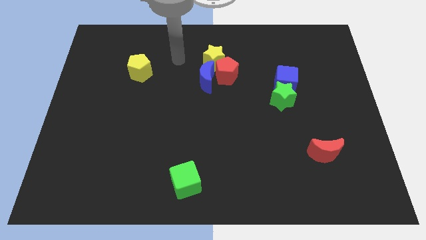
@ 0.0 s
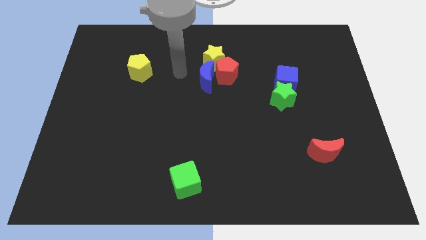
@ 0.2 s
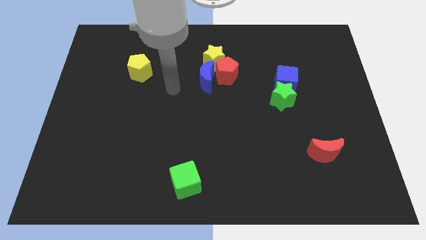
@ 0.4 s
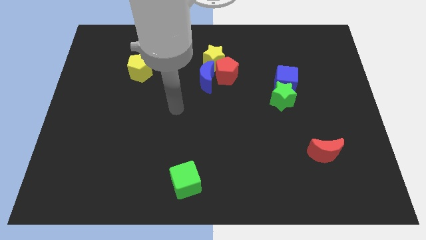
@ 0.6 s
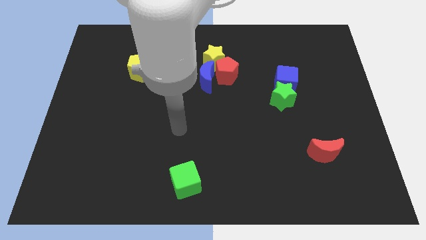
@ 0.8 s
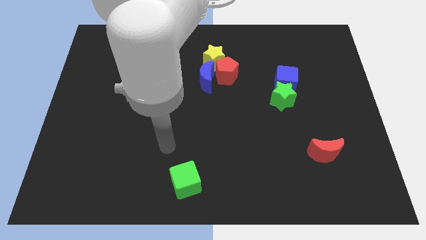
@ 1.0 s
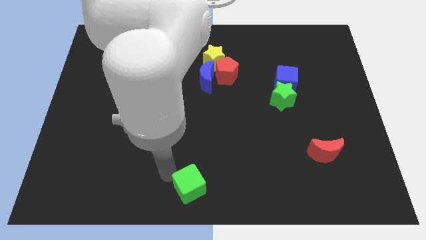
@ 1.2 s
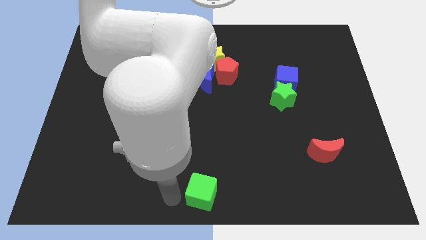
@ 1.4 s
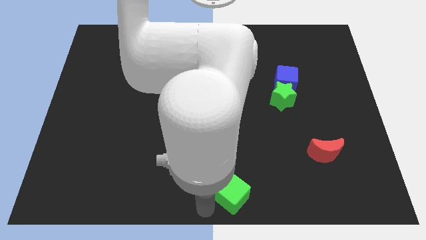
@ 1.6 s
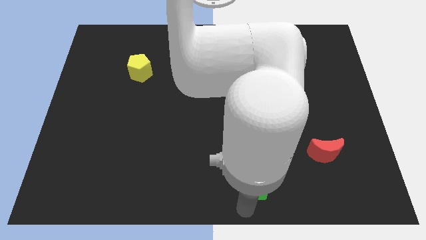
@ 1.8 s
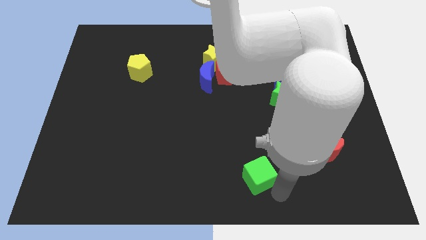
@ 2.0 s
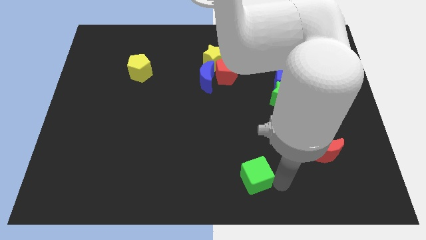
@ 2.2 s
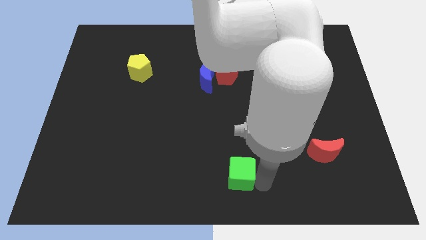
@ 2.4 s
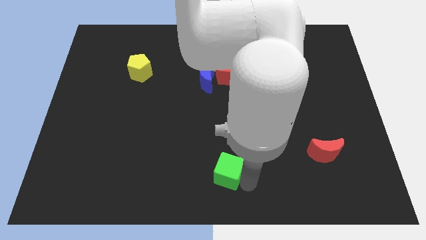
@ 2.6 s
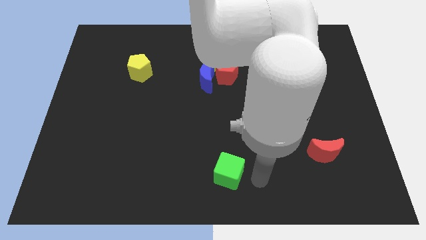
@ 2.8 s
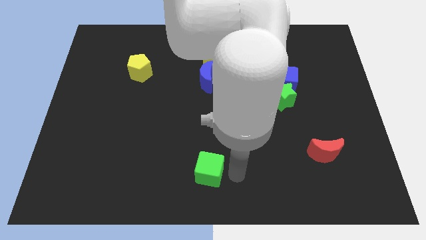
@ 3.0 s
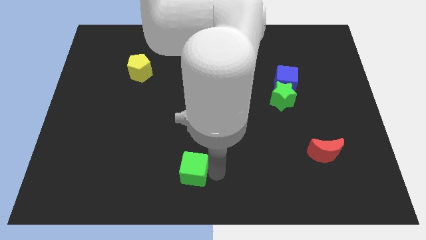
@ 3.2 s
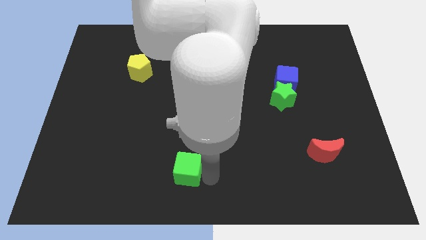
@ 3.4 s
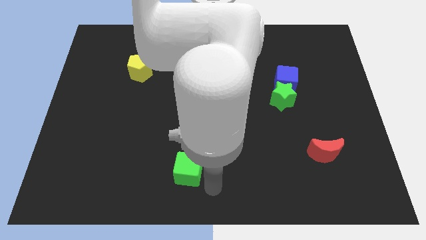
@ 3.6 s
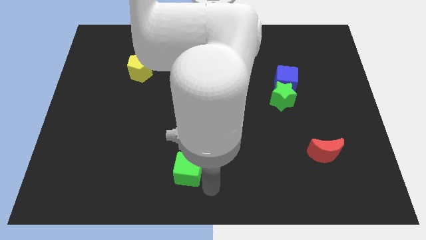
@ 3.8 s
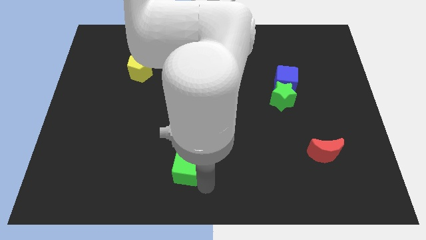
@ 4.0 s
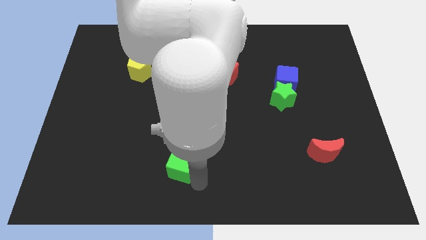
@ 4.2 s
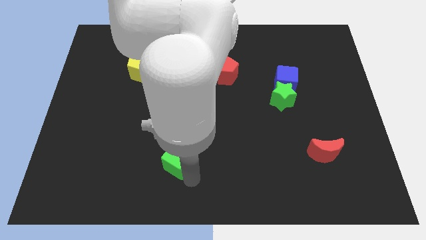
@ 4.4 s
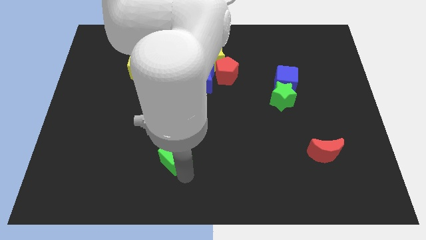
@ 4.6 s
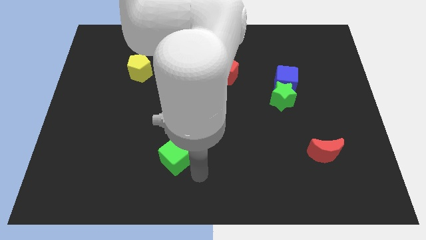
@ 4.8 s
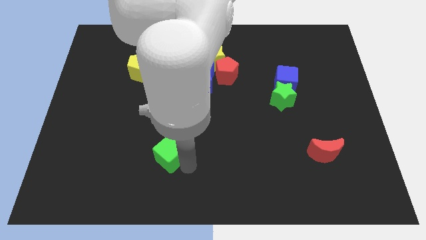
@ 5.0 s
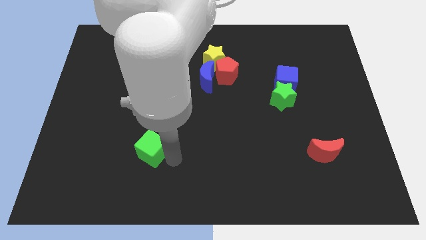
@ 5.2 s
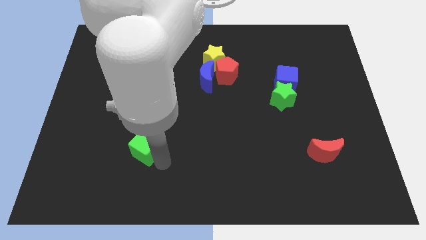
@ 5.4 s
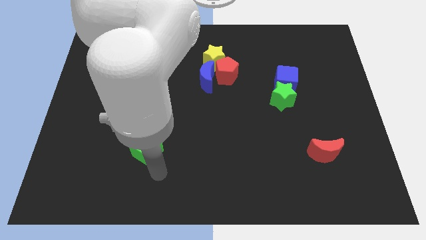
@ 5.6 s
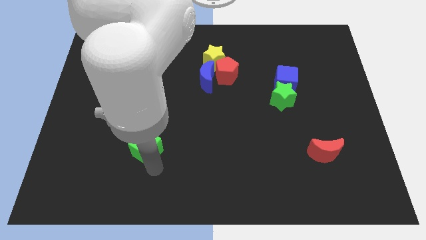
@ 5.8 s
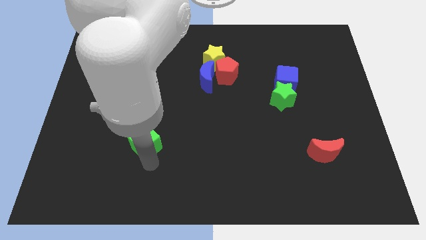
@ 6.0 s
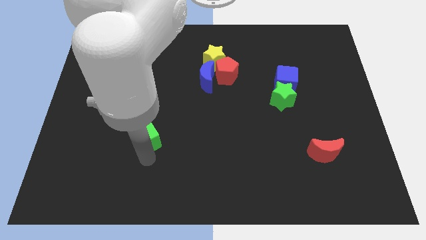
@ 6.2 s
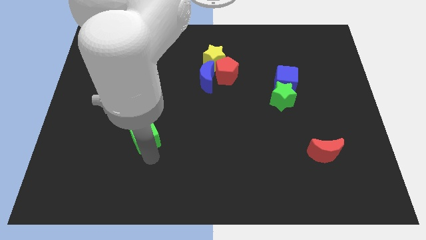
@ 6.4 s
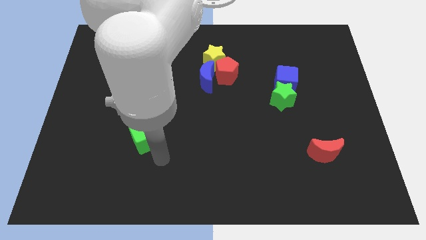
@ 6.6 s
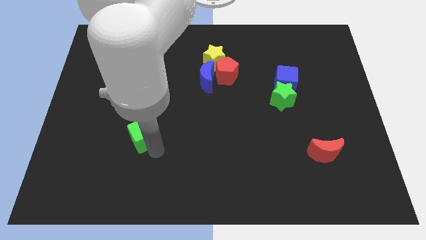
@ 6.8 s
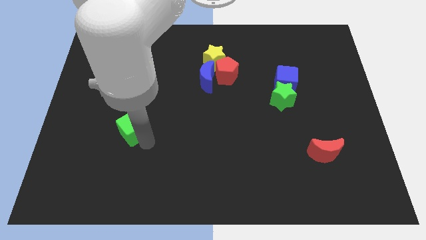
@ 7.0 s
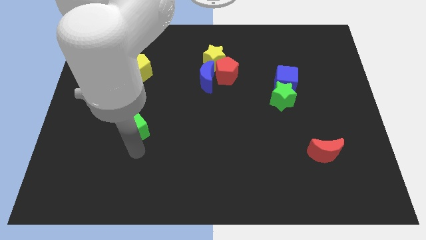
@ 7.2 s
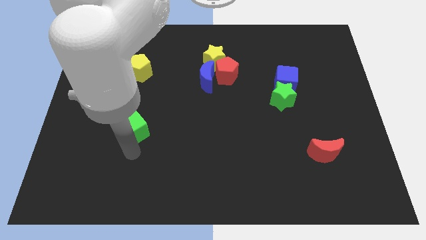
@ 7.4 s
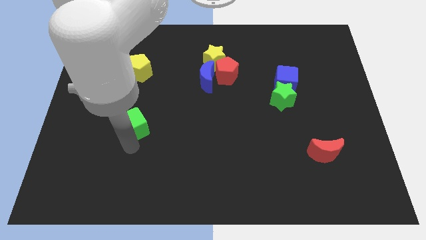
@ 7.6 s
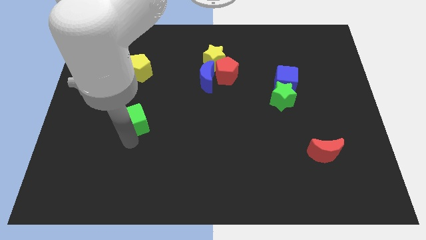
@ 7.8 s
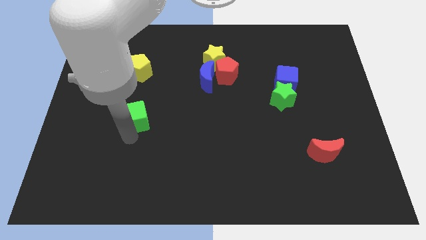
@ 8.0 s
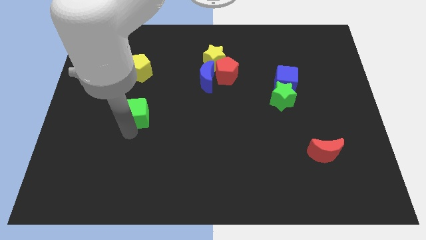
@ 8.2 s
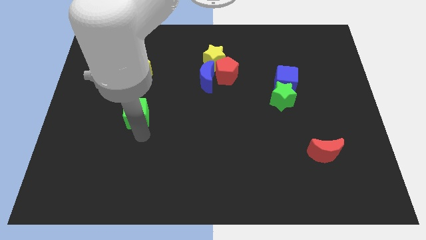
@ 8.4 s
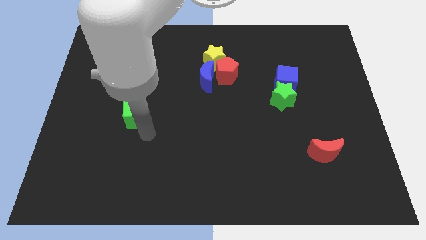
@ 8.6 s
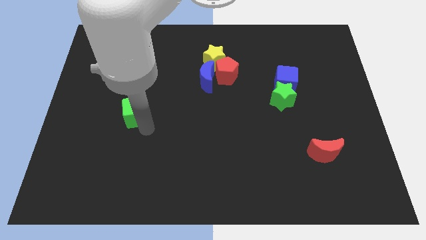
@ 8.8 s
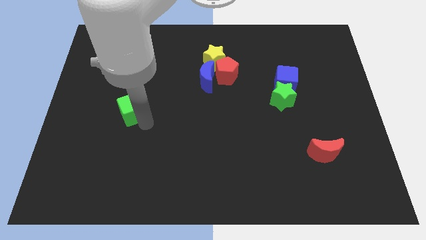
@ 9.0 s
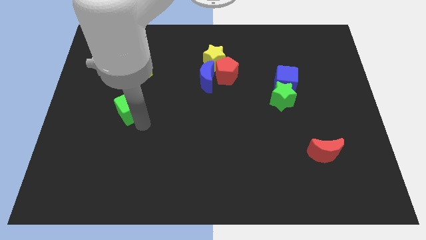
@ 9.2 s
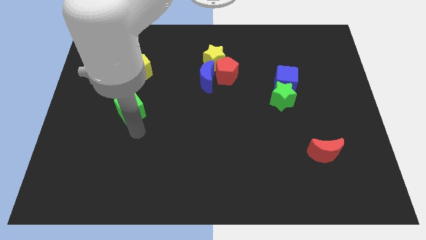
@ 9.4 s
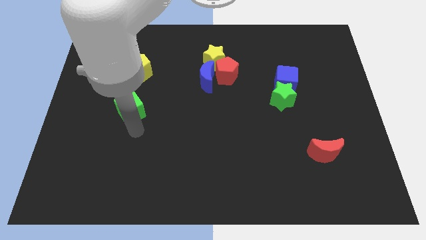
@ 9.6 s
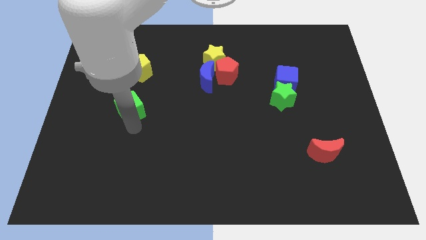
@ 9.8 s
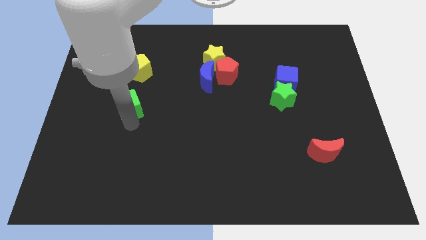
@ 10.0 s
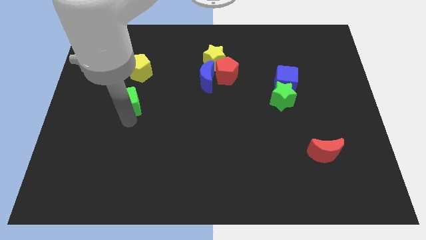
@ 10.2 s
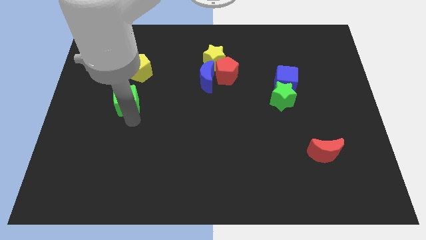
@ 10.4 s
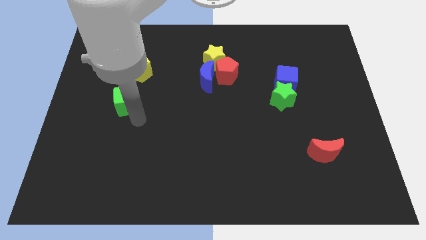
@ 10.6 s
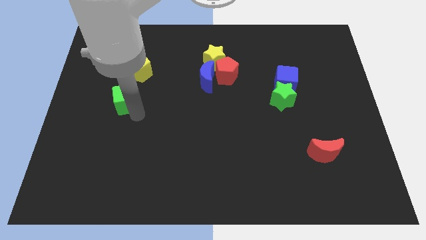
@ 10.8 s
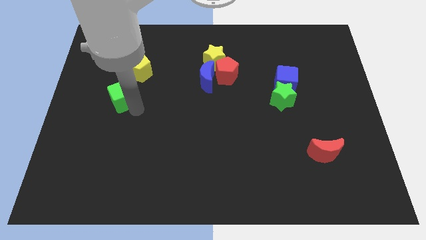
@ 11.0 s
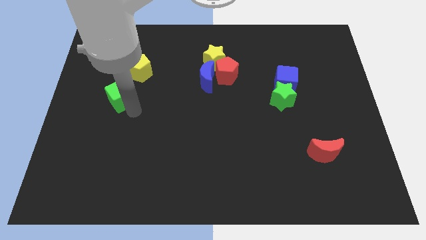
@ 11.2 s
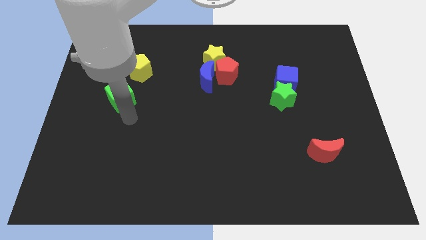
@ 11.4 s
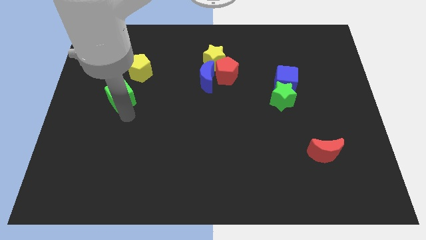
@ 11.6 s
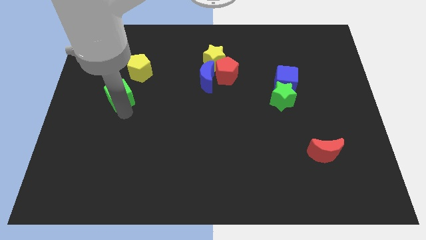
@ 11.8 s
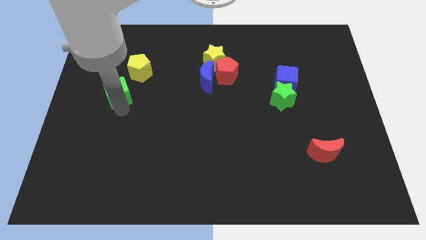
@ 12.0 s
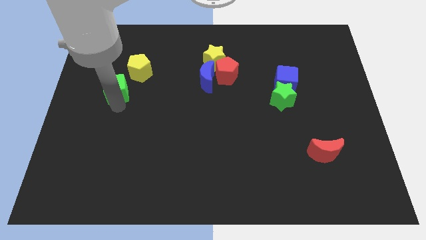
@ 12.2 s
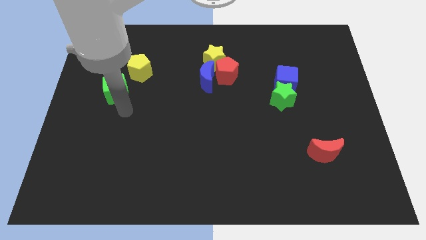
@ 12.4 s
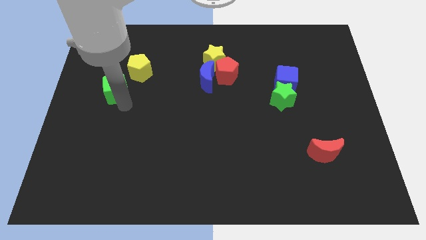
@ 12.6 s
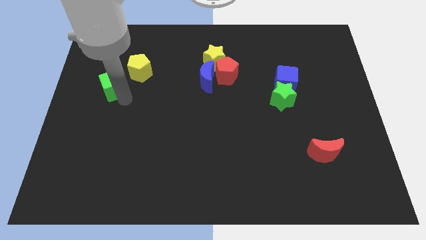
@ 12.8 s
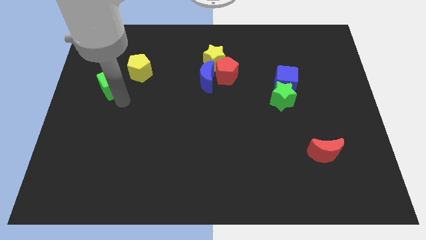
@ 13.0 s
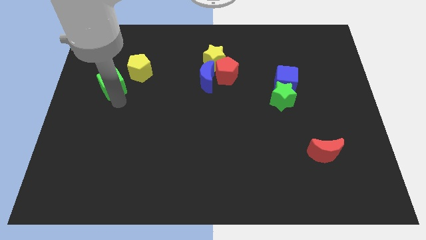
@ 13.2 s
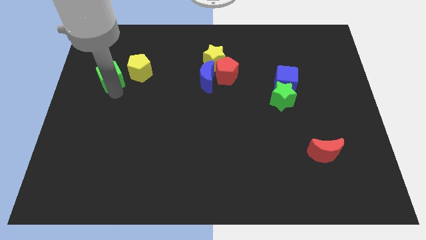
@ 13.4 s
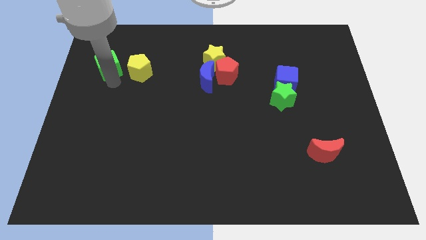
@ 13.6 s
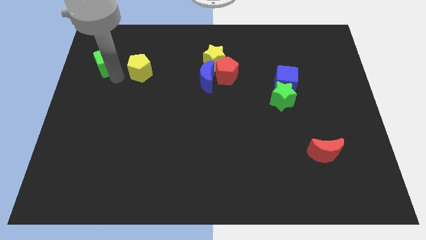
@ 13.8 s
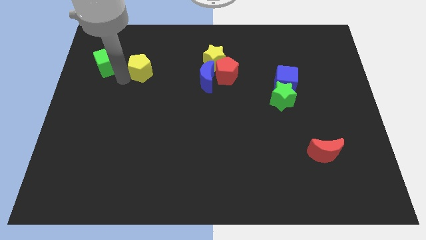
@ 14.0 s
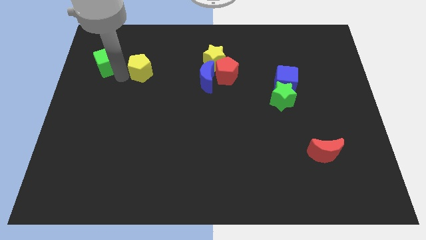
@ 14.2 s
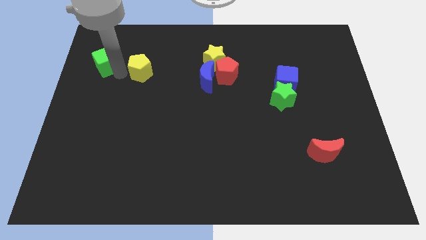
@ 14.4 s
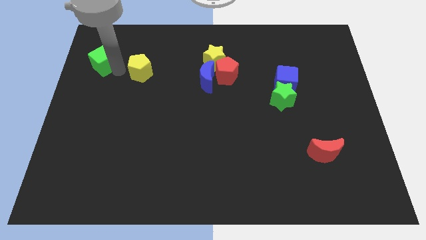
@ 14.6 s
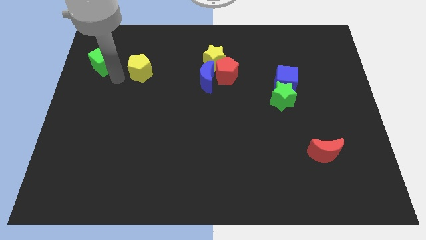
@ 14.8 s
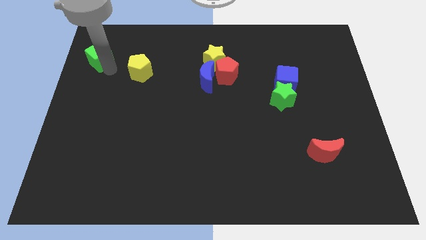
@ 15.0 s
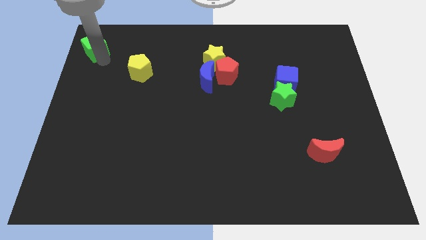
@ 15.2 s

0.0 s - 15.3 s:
move the green cube to the top left of the board
